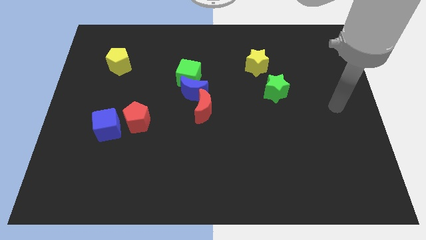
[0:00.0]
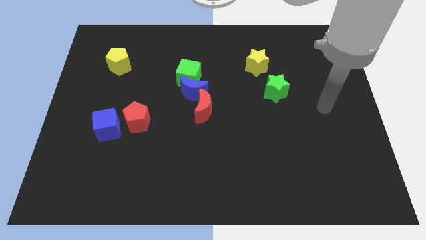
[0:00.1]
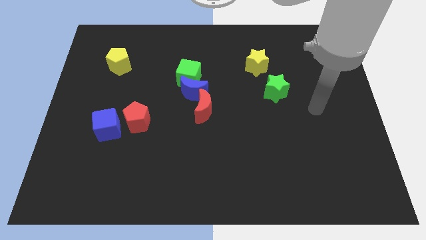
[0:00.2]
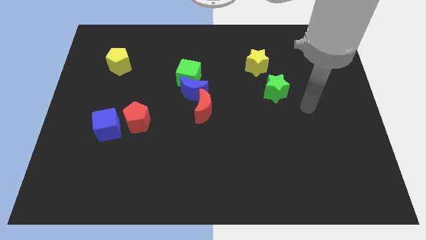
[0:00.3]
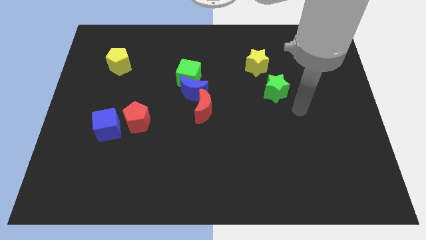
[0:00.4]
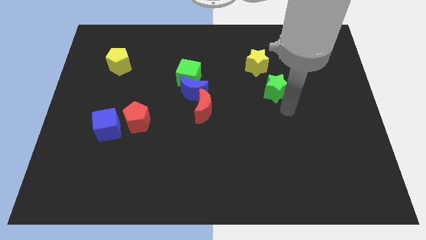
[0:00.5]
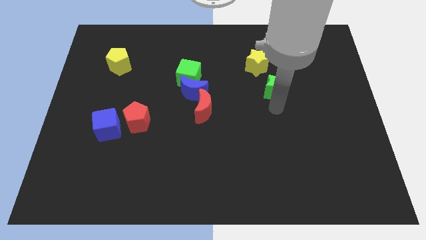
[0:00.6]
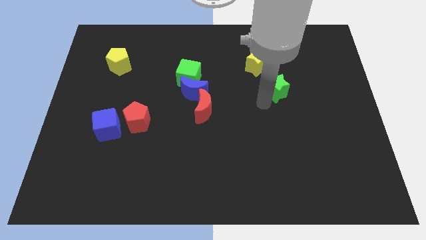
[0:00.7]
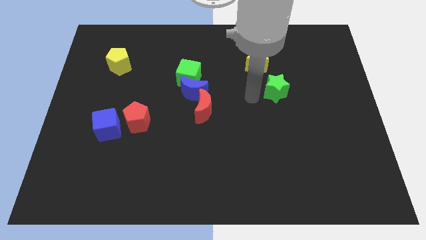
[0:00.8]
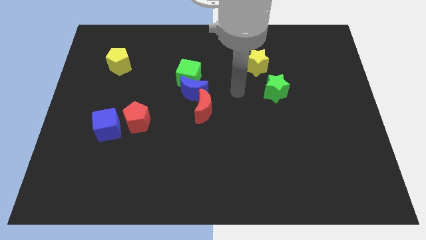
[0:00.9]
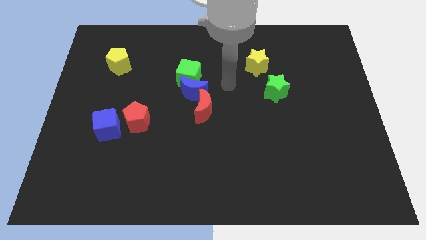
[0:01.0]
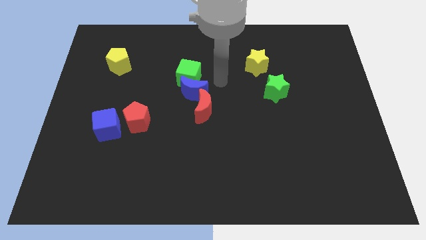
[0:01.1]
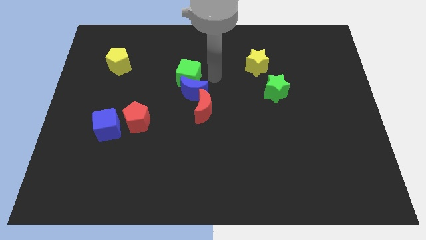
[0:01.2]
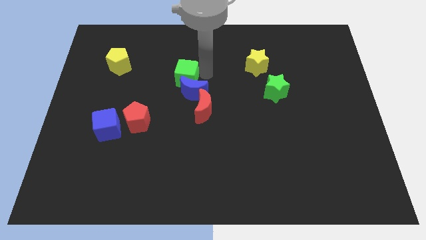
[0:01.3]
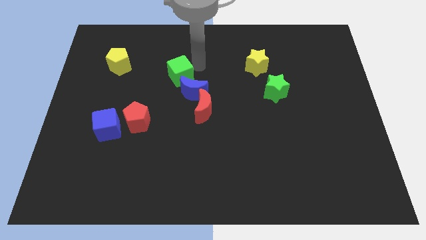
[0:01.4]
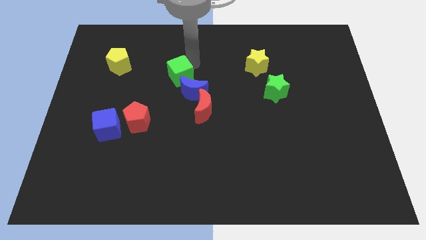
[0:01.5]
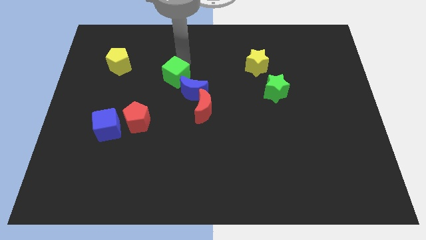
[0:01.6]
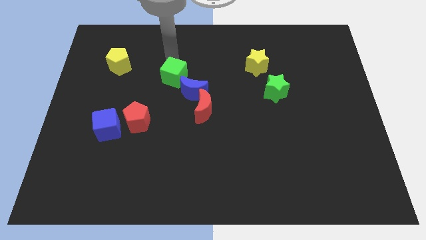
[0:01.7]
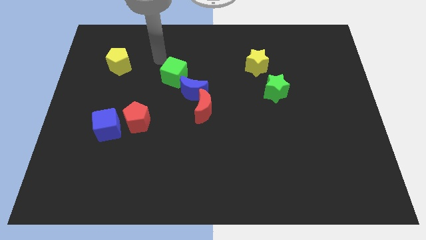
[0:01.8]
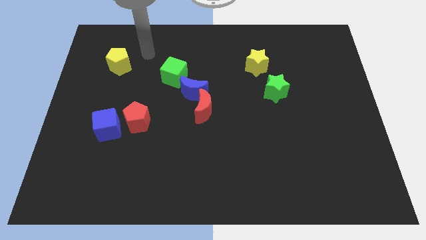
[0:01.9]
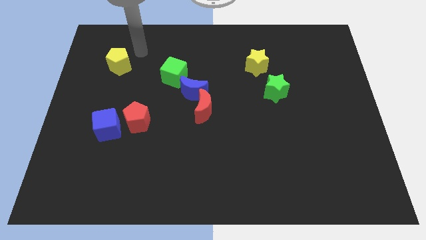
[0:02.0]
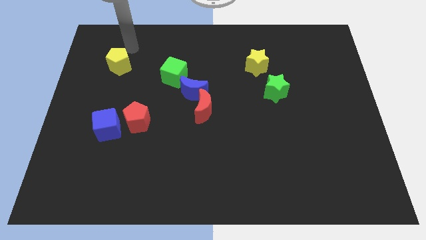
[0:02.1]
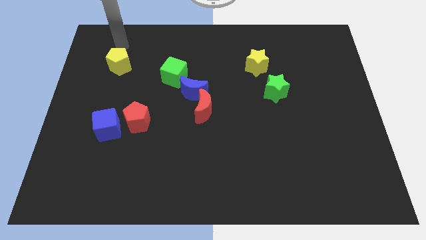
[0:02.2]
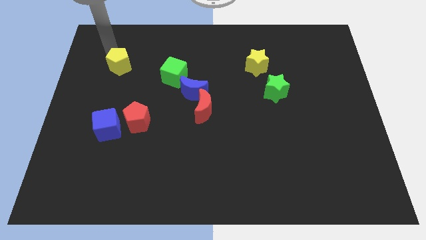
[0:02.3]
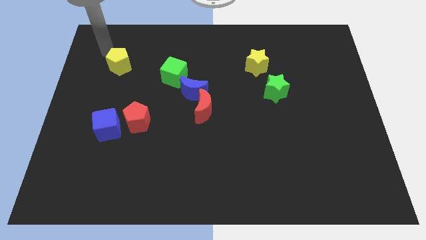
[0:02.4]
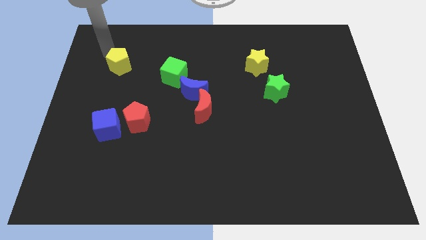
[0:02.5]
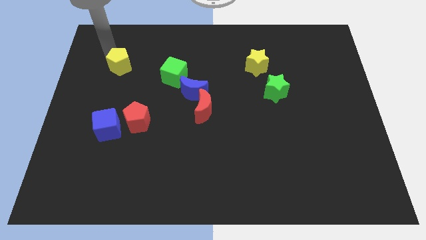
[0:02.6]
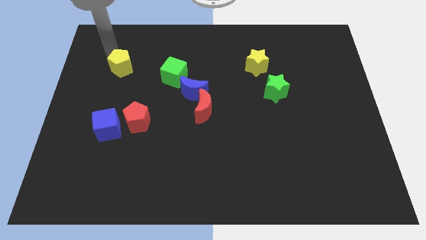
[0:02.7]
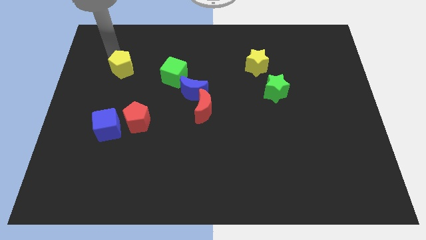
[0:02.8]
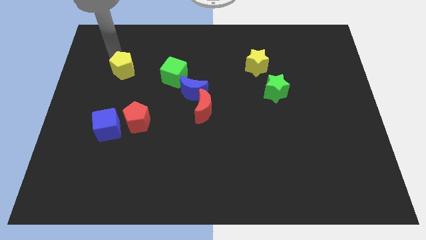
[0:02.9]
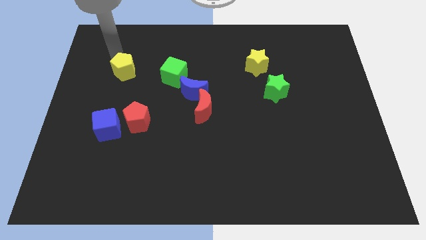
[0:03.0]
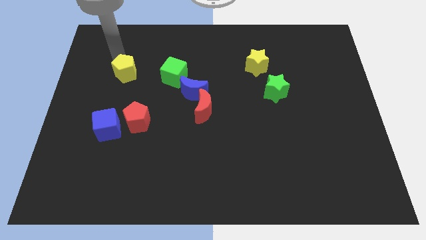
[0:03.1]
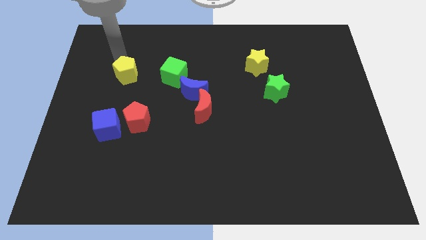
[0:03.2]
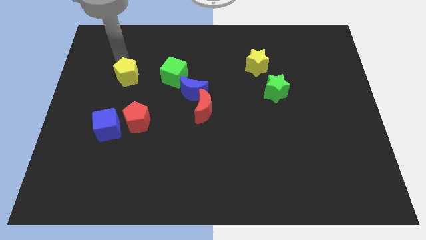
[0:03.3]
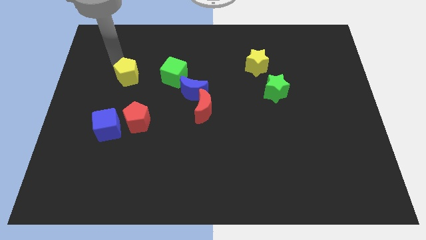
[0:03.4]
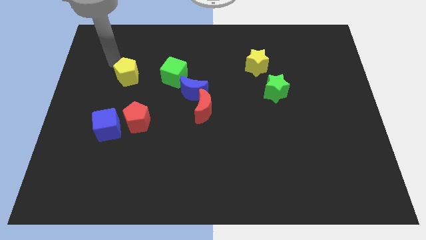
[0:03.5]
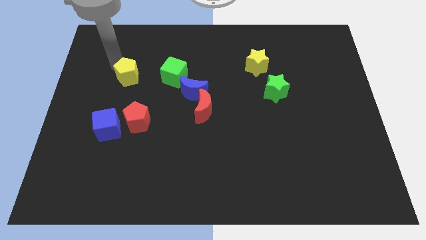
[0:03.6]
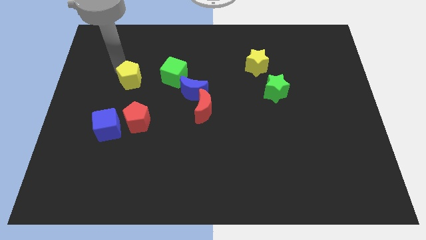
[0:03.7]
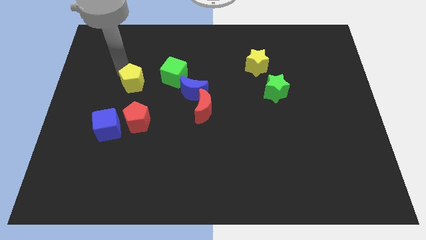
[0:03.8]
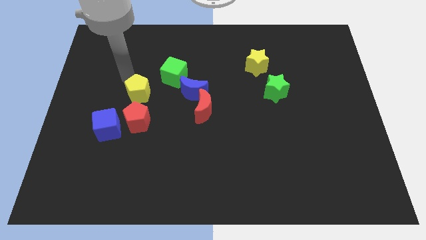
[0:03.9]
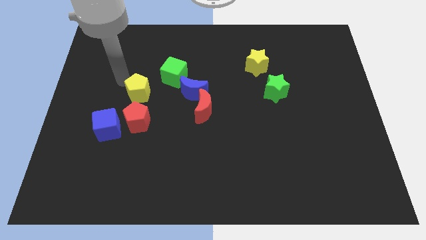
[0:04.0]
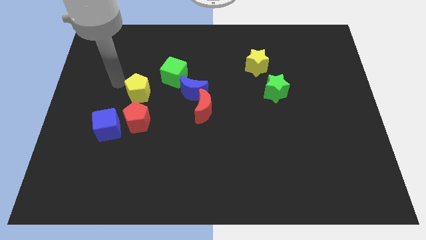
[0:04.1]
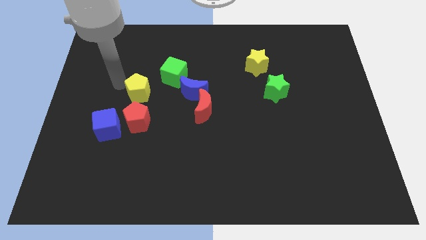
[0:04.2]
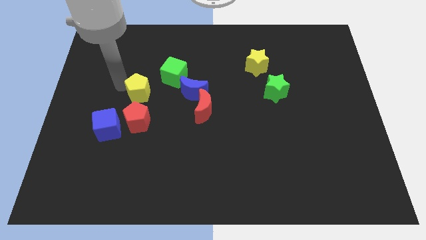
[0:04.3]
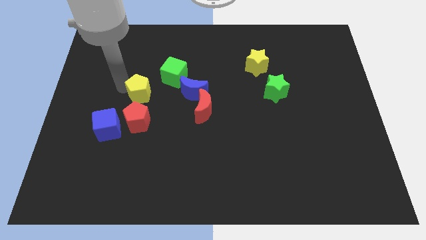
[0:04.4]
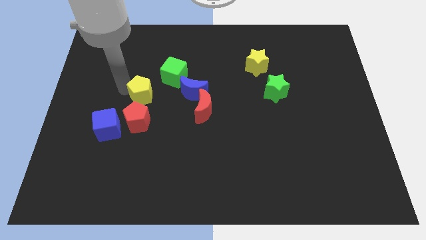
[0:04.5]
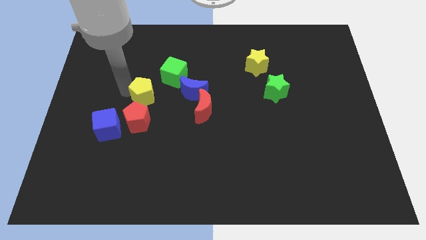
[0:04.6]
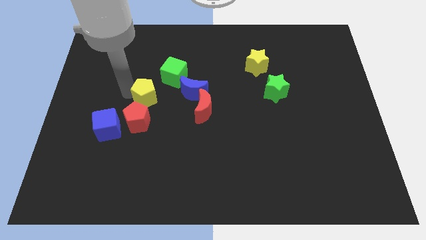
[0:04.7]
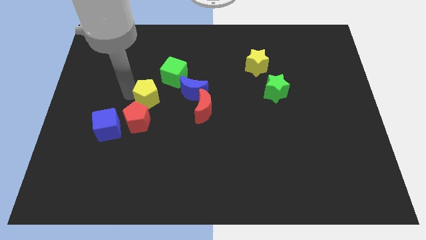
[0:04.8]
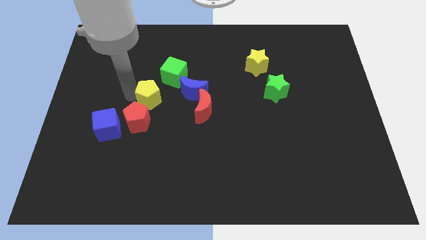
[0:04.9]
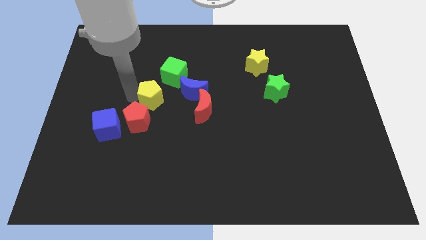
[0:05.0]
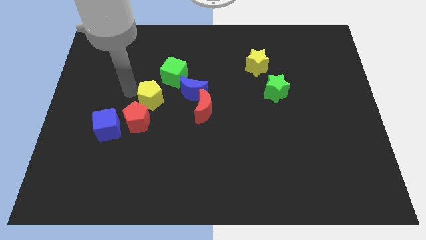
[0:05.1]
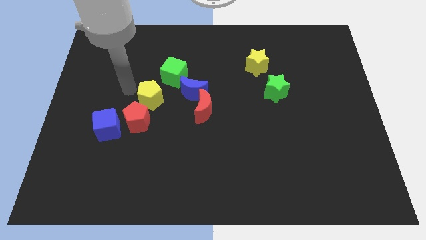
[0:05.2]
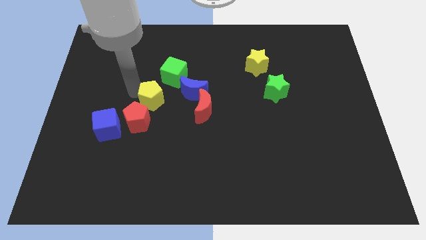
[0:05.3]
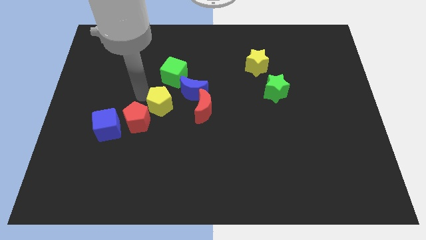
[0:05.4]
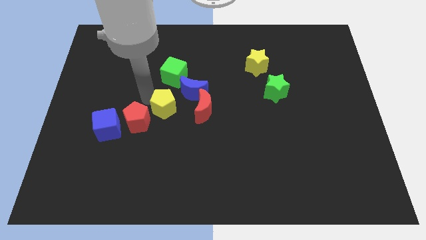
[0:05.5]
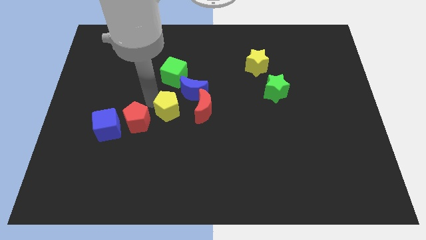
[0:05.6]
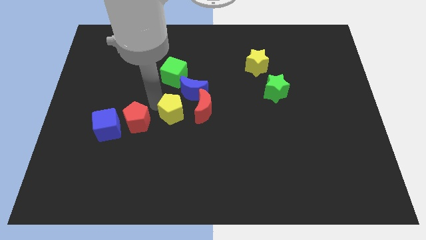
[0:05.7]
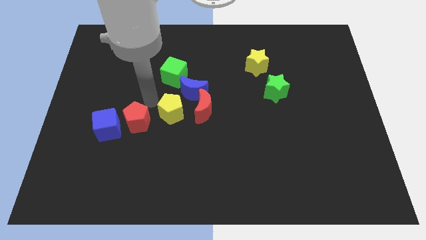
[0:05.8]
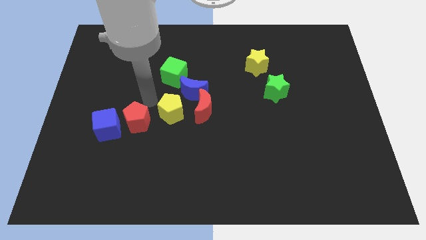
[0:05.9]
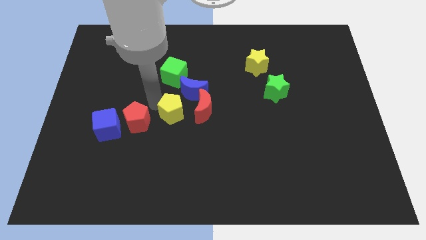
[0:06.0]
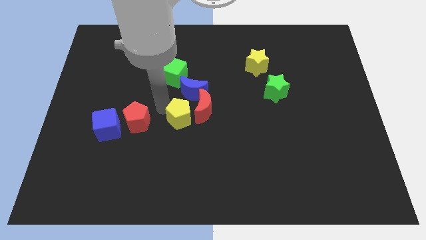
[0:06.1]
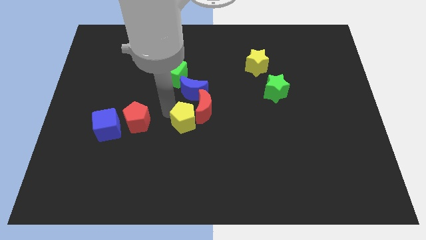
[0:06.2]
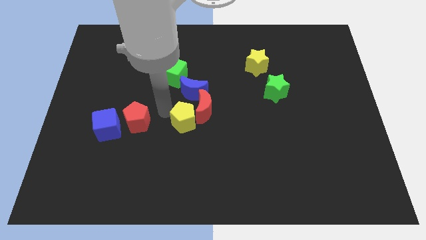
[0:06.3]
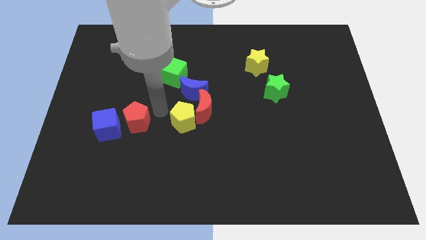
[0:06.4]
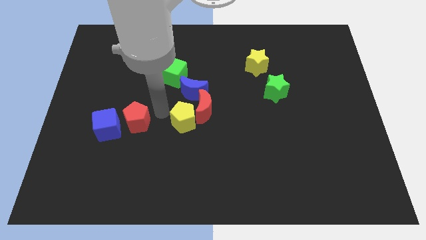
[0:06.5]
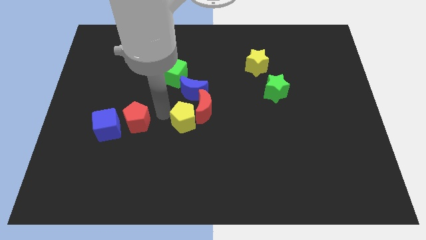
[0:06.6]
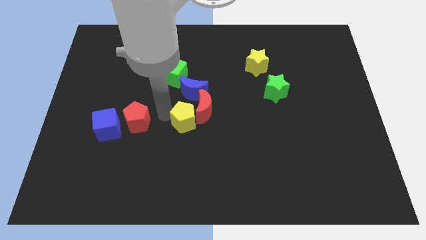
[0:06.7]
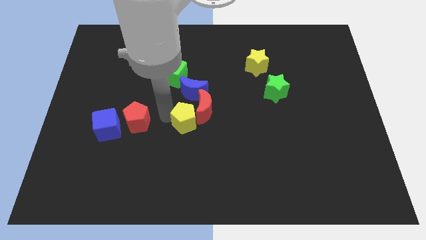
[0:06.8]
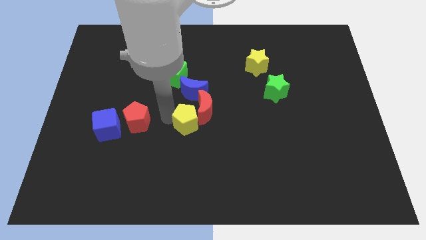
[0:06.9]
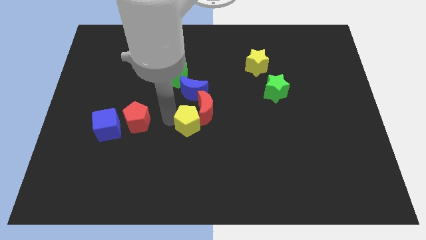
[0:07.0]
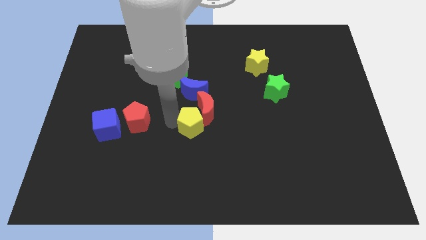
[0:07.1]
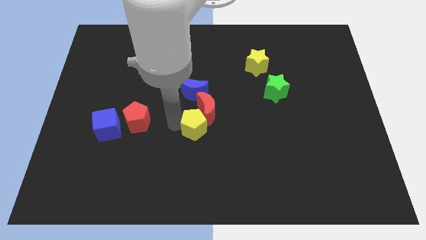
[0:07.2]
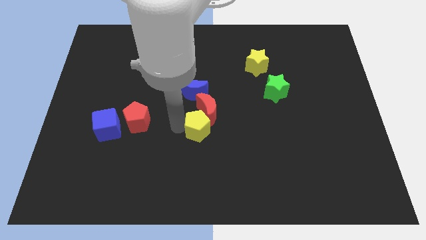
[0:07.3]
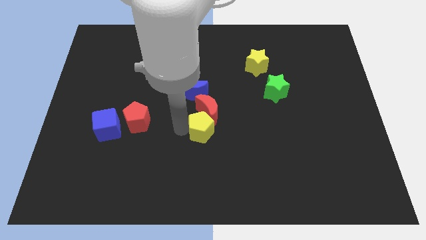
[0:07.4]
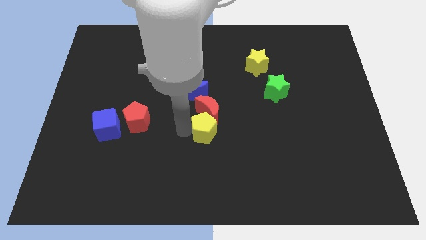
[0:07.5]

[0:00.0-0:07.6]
push the yellow pentagon diagonally down and to the right of the red moon
